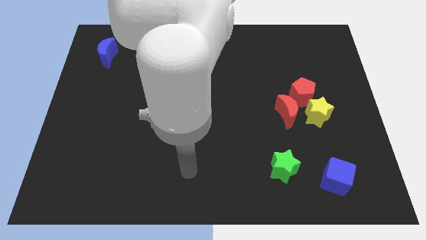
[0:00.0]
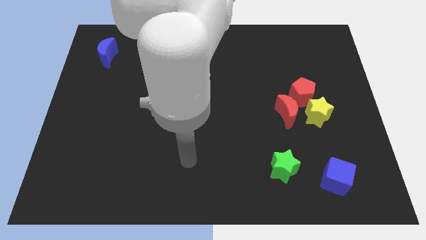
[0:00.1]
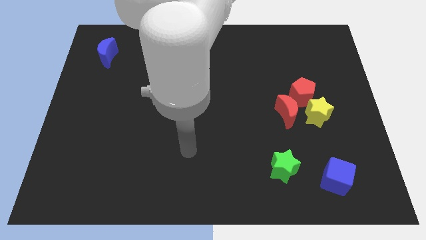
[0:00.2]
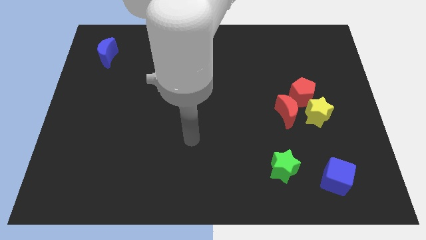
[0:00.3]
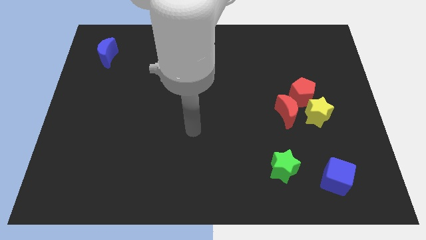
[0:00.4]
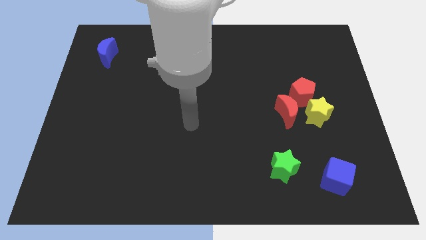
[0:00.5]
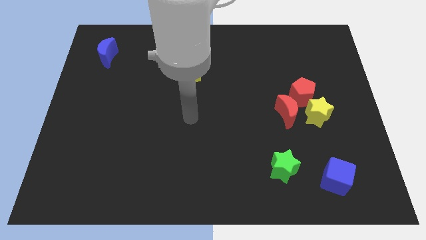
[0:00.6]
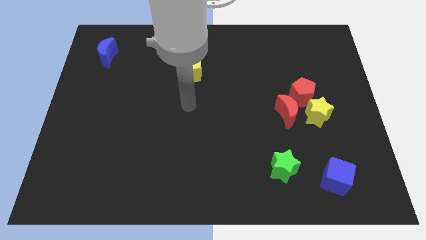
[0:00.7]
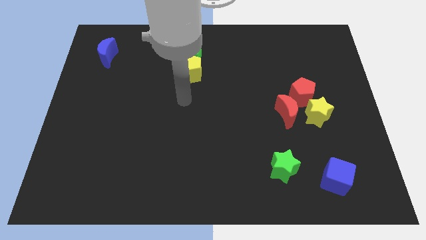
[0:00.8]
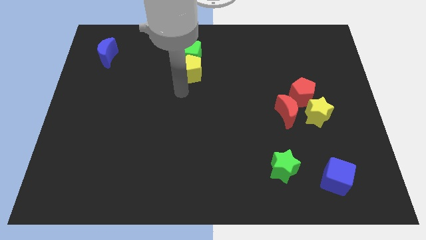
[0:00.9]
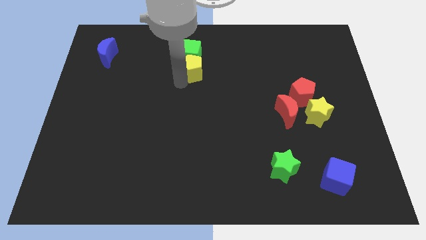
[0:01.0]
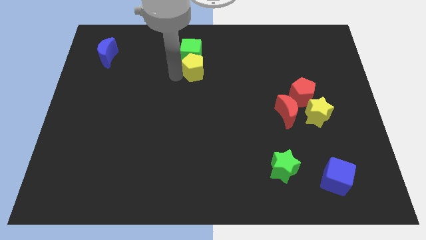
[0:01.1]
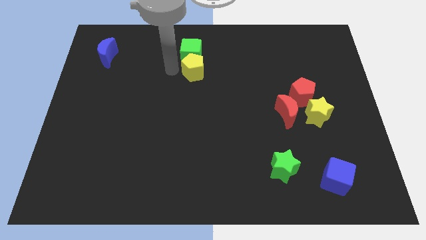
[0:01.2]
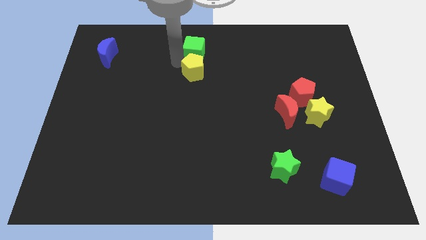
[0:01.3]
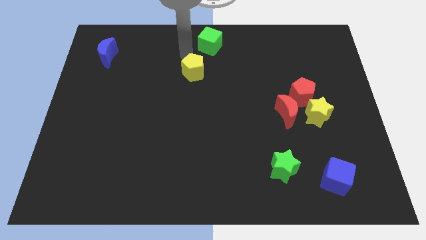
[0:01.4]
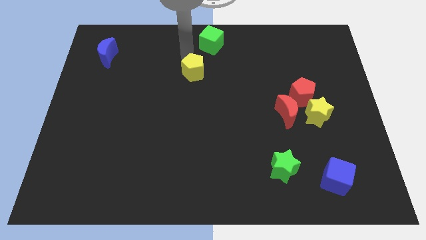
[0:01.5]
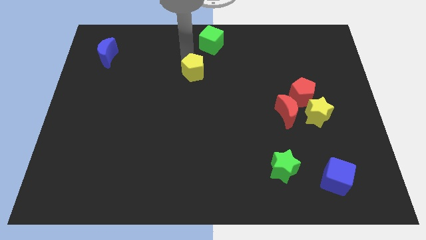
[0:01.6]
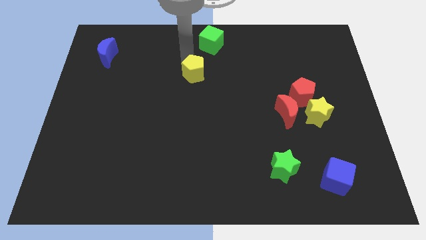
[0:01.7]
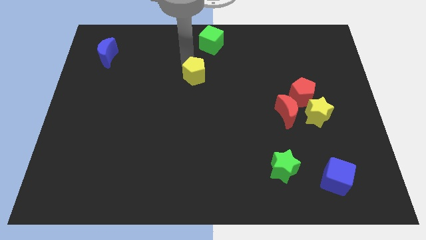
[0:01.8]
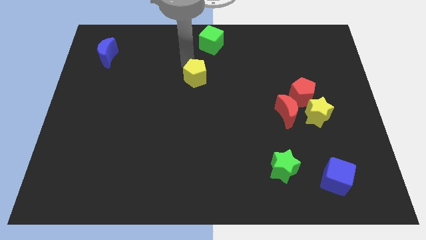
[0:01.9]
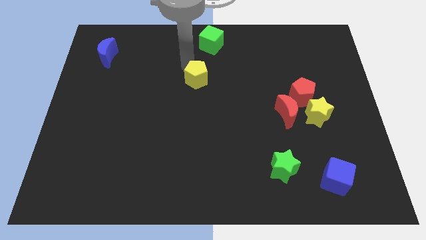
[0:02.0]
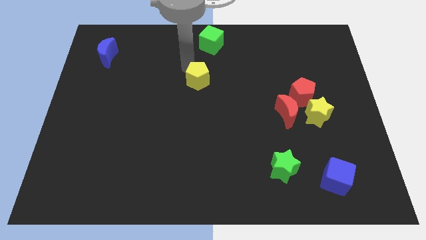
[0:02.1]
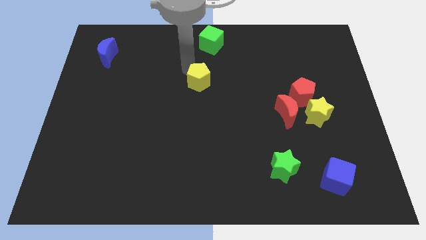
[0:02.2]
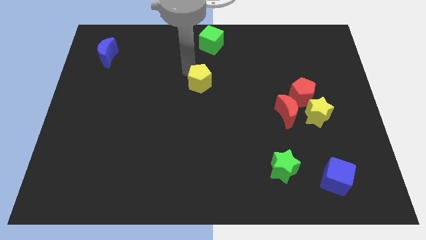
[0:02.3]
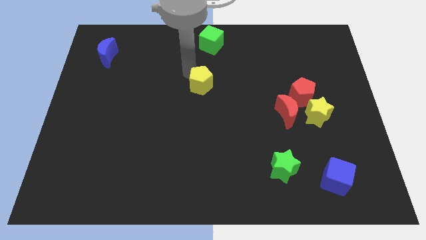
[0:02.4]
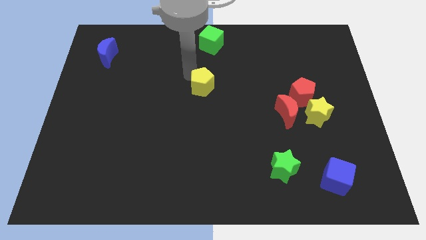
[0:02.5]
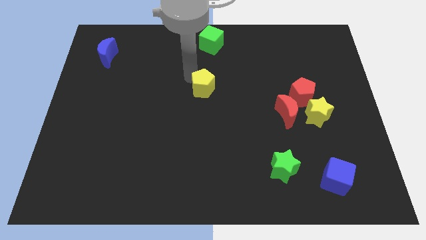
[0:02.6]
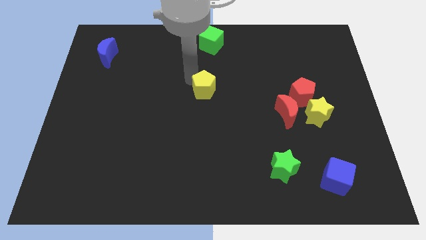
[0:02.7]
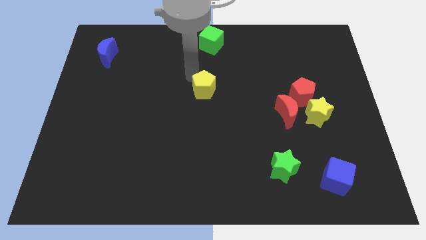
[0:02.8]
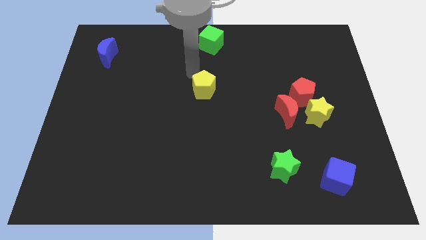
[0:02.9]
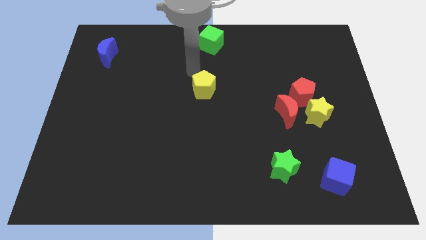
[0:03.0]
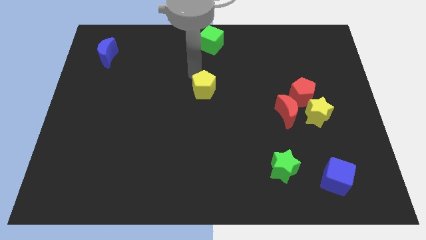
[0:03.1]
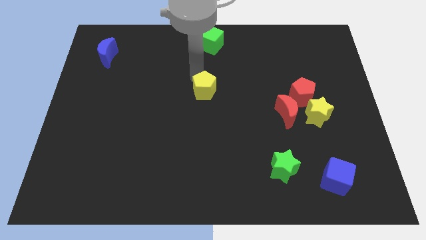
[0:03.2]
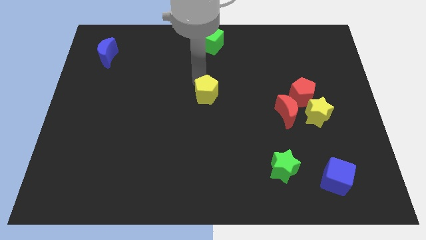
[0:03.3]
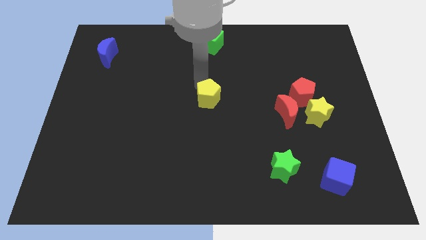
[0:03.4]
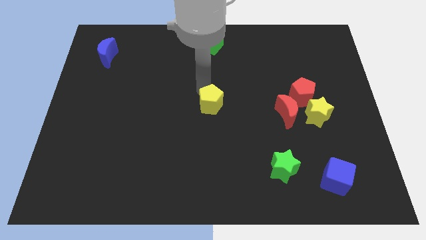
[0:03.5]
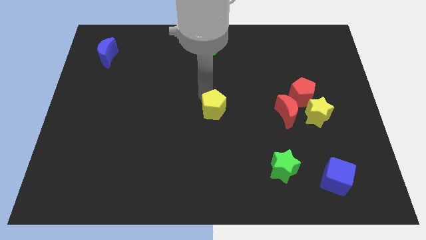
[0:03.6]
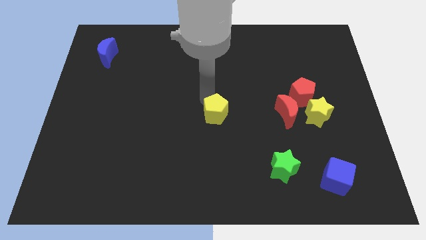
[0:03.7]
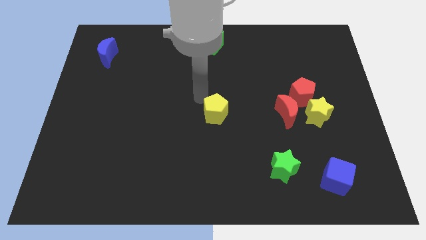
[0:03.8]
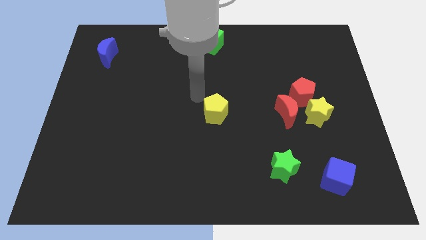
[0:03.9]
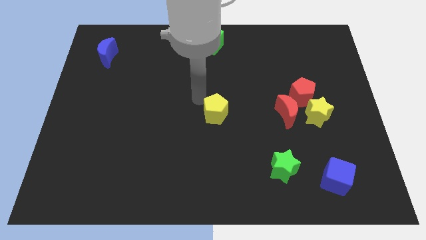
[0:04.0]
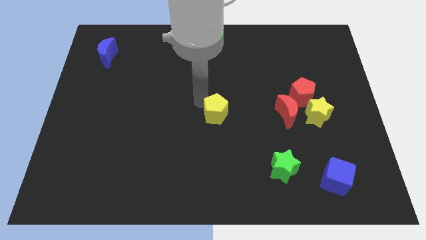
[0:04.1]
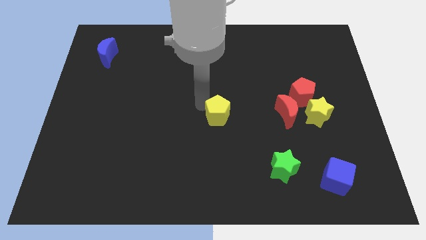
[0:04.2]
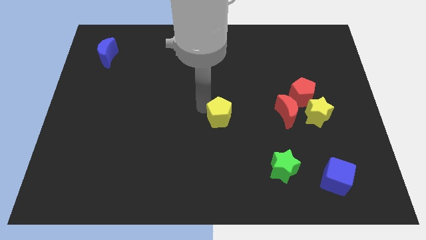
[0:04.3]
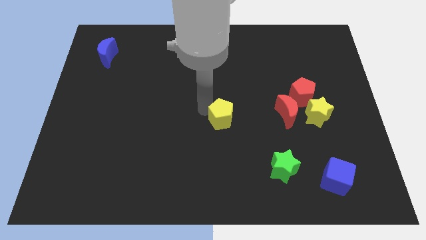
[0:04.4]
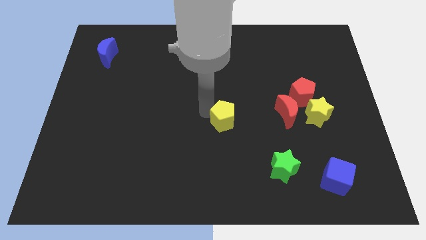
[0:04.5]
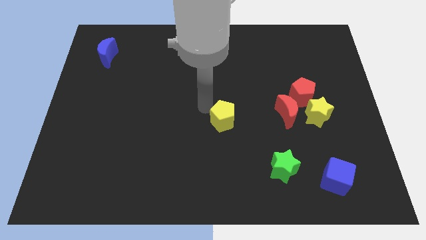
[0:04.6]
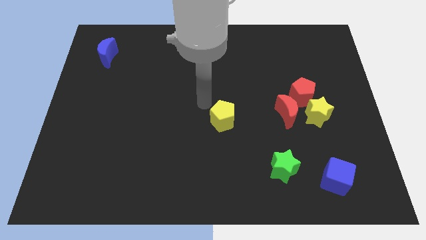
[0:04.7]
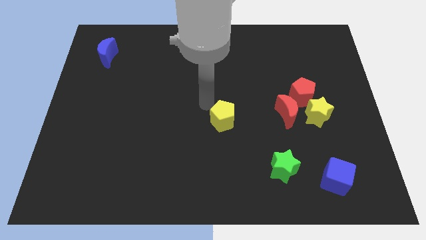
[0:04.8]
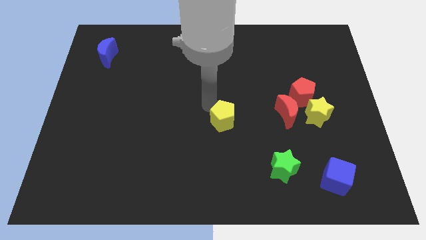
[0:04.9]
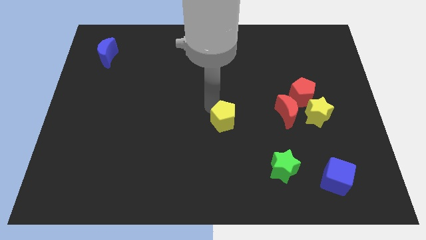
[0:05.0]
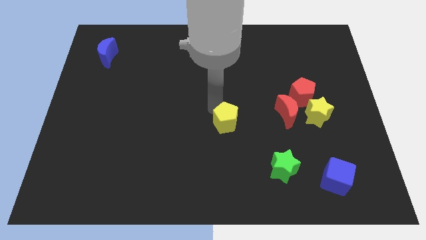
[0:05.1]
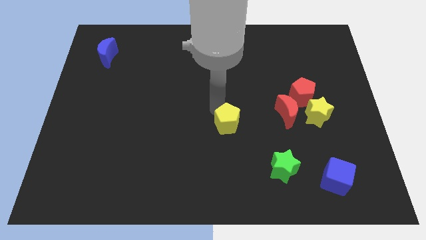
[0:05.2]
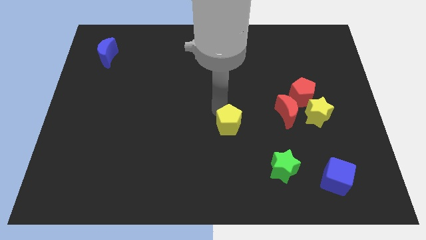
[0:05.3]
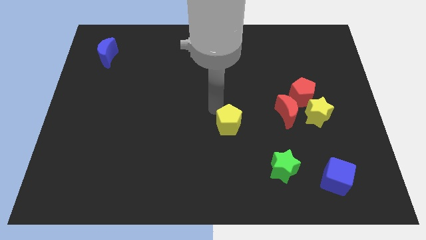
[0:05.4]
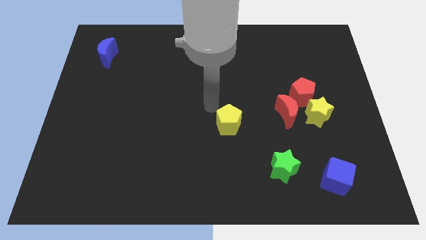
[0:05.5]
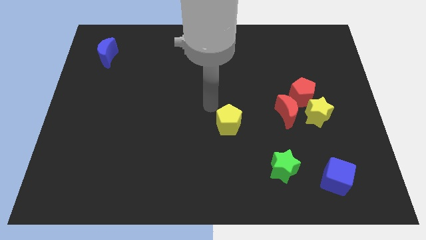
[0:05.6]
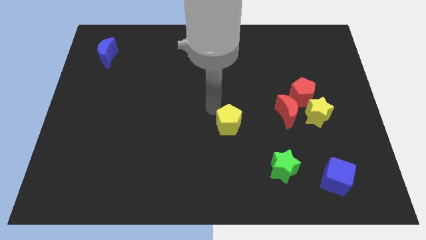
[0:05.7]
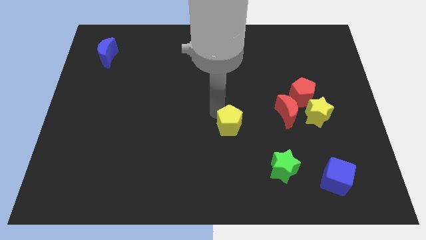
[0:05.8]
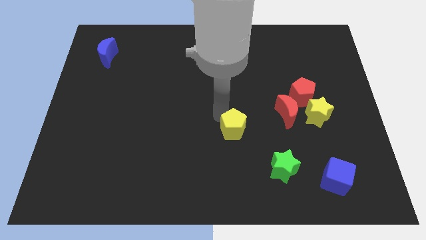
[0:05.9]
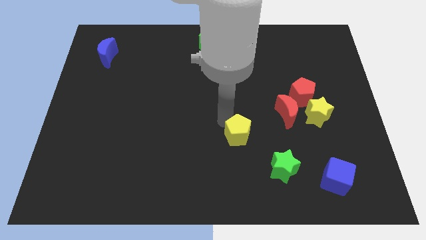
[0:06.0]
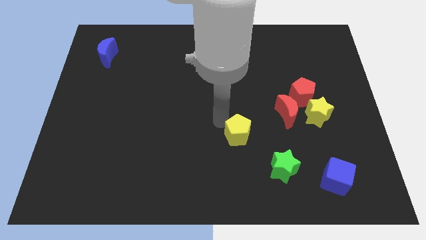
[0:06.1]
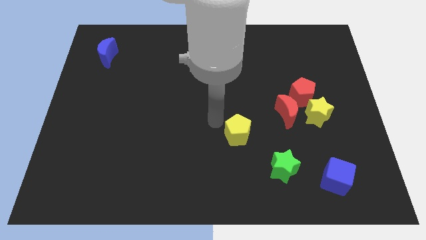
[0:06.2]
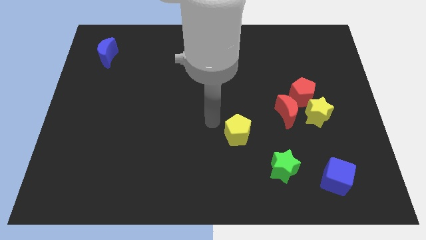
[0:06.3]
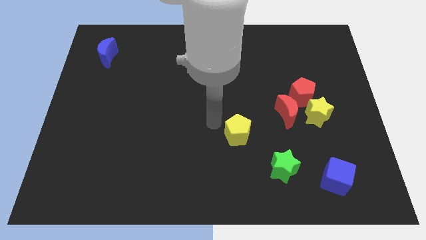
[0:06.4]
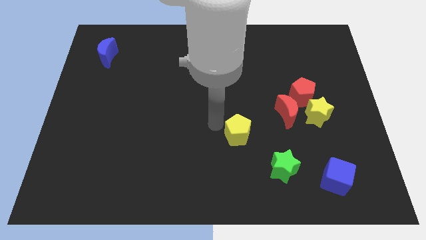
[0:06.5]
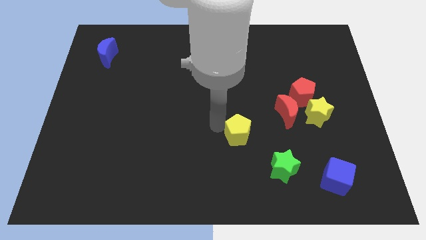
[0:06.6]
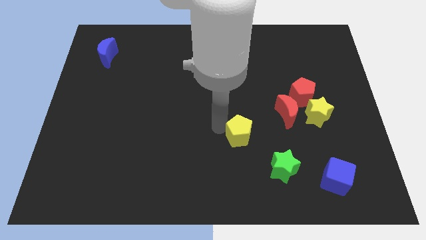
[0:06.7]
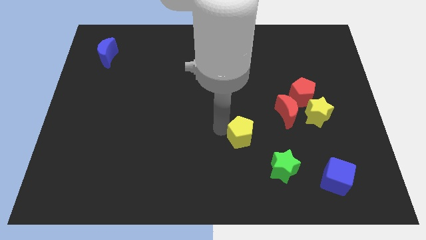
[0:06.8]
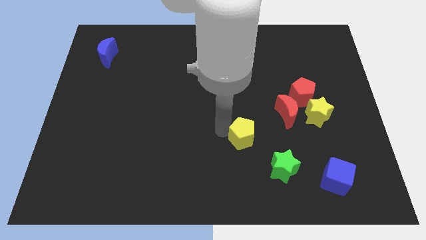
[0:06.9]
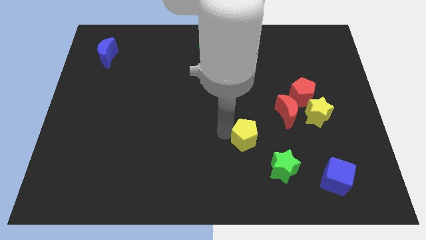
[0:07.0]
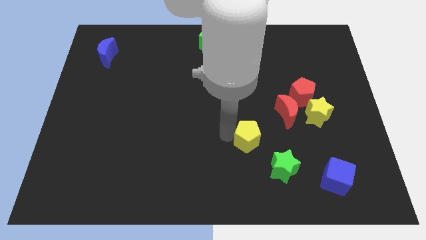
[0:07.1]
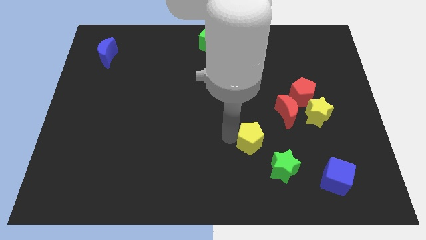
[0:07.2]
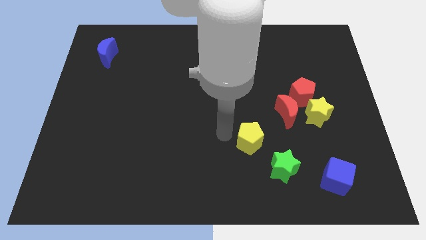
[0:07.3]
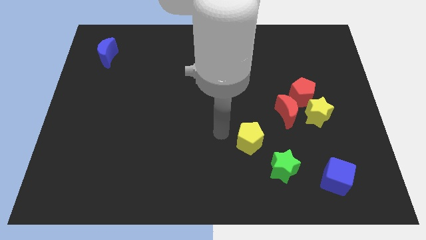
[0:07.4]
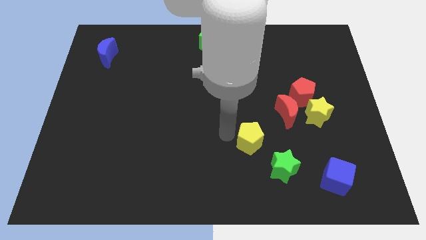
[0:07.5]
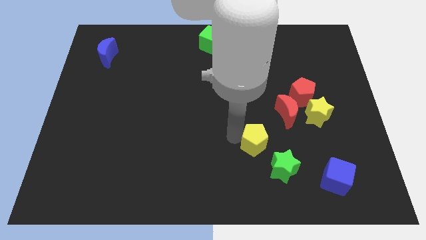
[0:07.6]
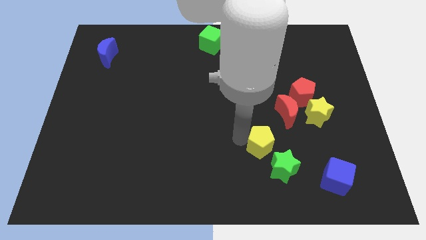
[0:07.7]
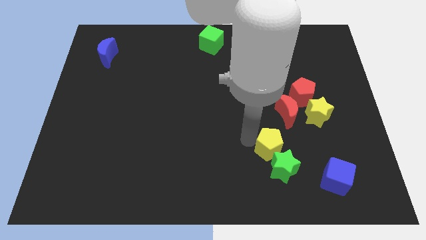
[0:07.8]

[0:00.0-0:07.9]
put the yellow pentagon next to the green star
